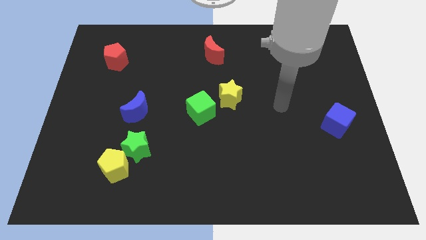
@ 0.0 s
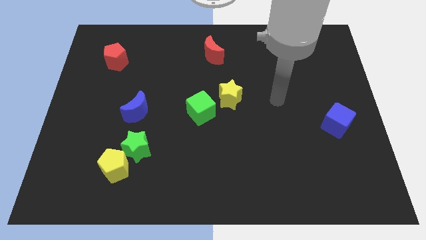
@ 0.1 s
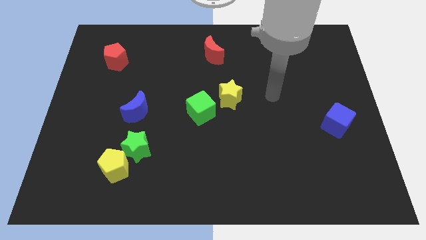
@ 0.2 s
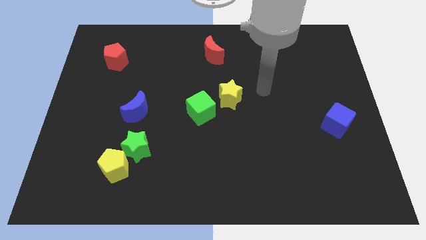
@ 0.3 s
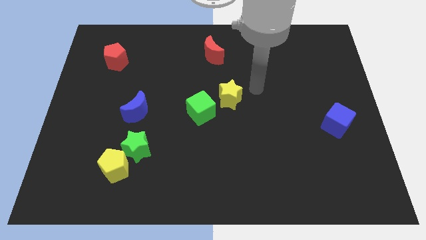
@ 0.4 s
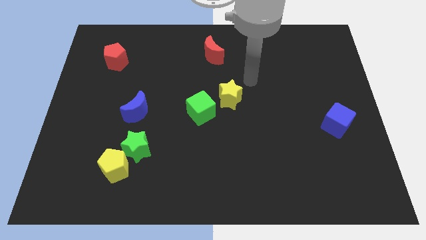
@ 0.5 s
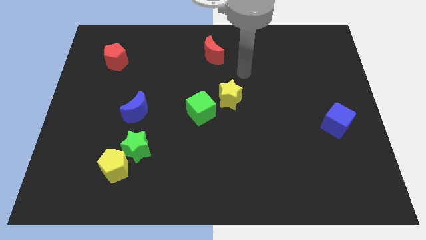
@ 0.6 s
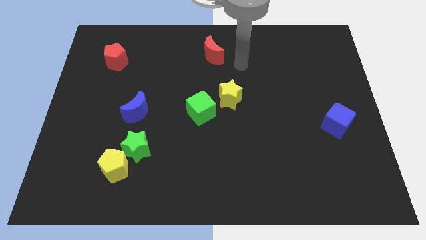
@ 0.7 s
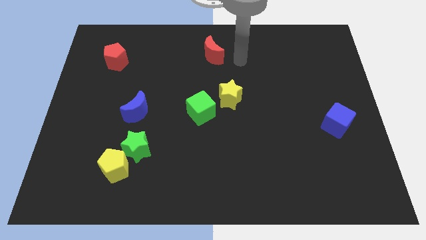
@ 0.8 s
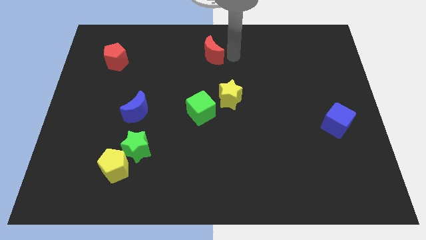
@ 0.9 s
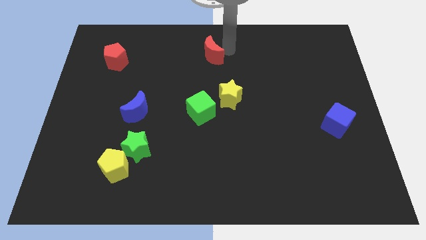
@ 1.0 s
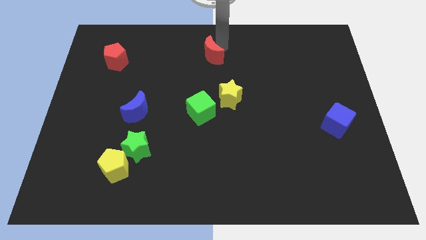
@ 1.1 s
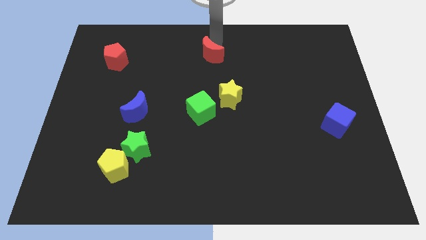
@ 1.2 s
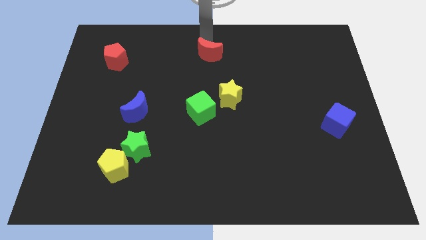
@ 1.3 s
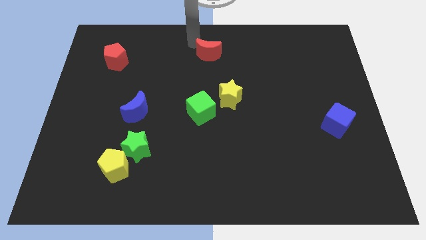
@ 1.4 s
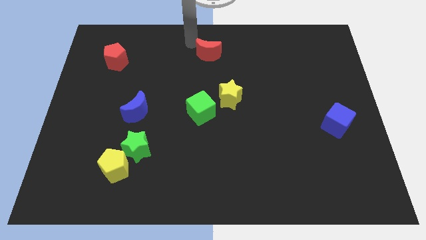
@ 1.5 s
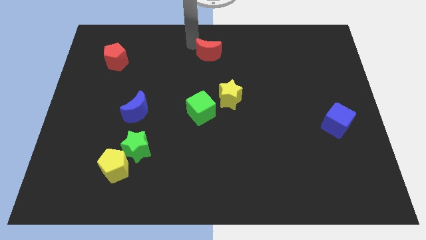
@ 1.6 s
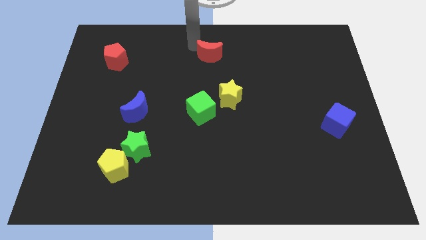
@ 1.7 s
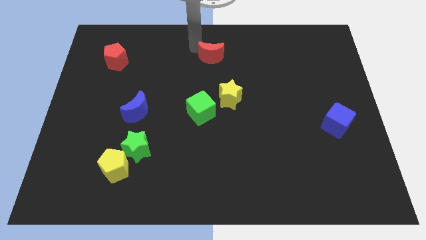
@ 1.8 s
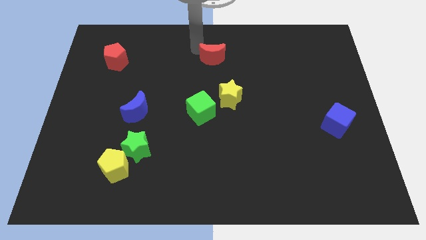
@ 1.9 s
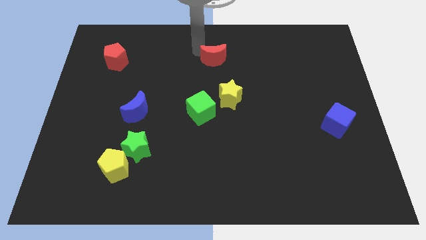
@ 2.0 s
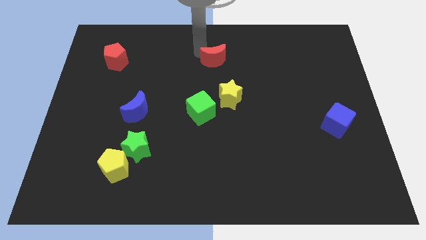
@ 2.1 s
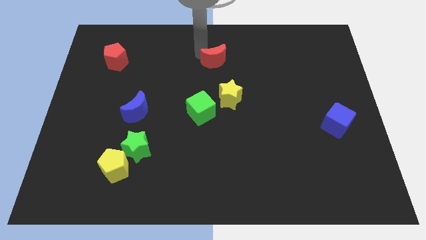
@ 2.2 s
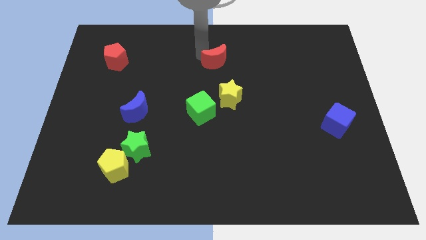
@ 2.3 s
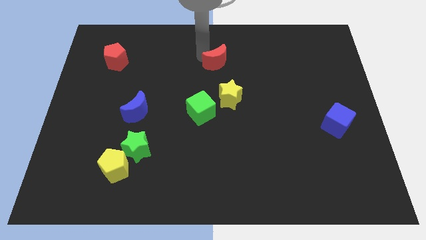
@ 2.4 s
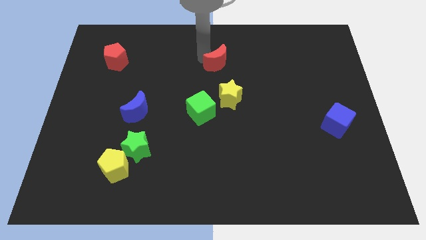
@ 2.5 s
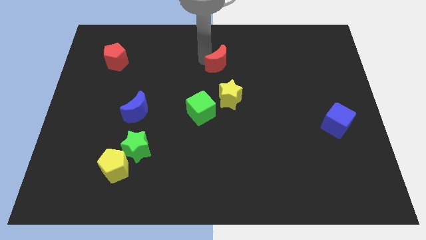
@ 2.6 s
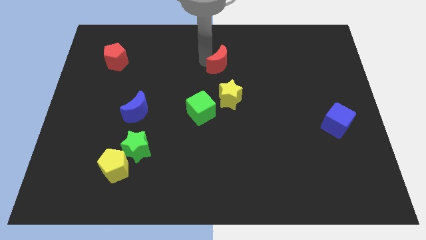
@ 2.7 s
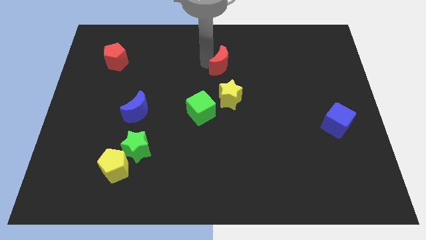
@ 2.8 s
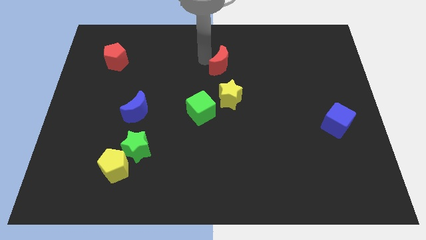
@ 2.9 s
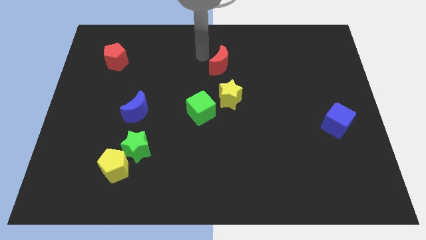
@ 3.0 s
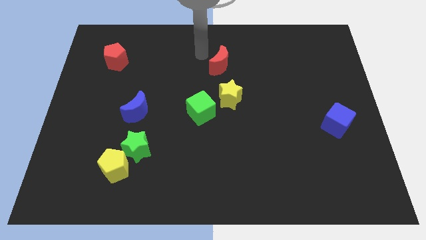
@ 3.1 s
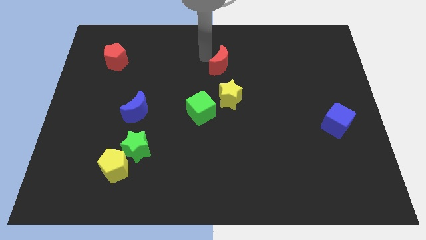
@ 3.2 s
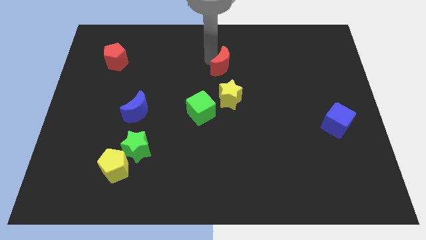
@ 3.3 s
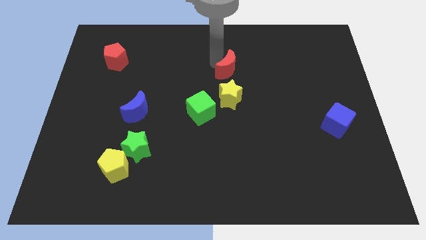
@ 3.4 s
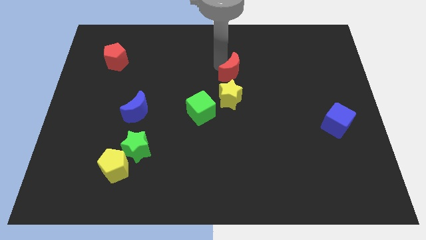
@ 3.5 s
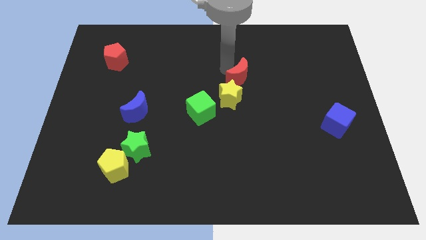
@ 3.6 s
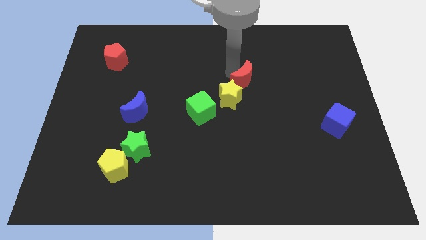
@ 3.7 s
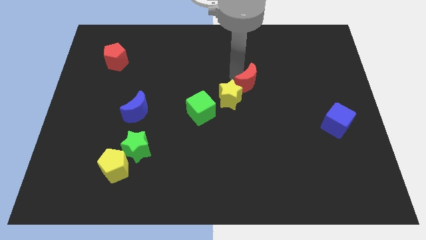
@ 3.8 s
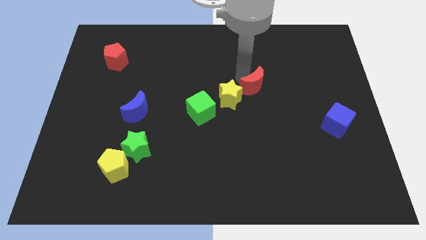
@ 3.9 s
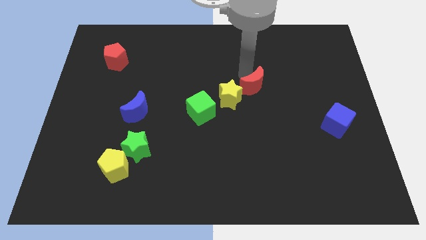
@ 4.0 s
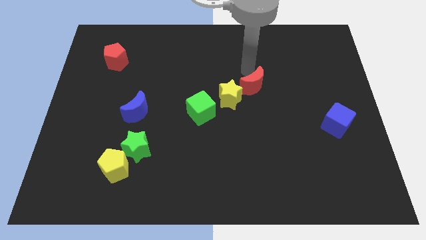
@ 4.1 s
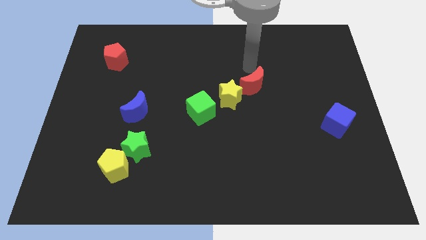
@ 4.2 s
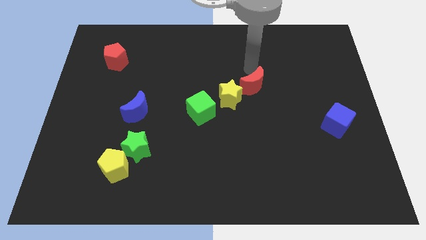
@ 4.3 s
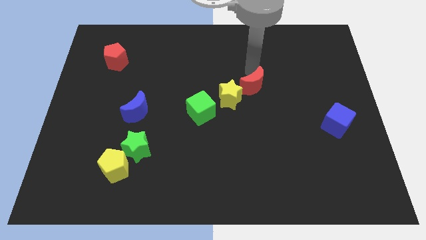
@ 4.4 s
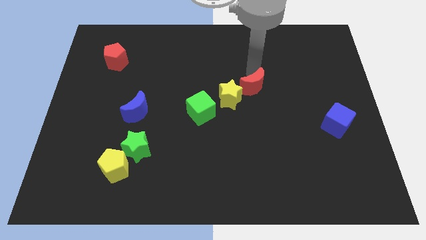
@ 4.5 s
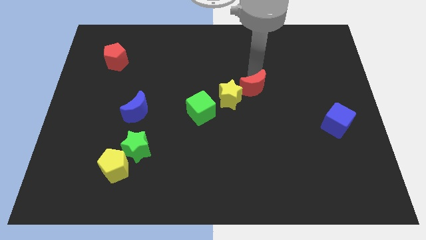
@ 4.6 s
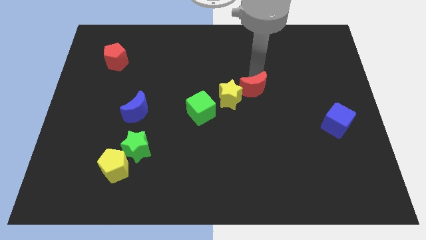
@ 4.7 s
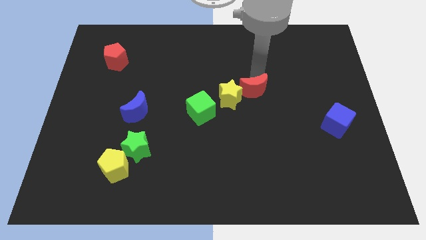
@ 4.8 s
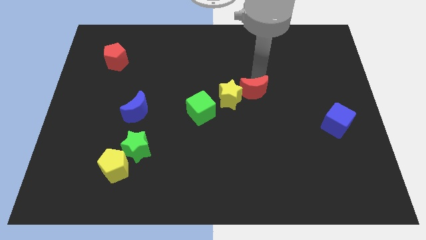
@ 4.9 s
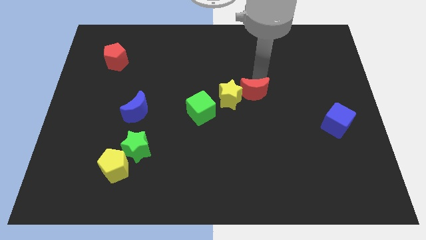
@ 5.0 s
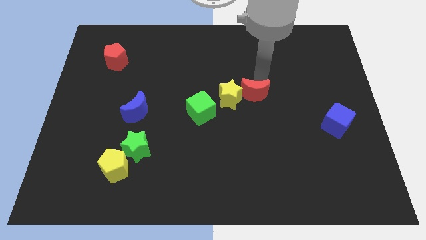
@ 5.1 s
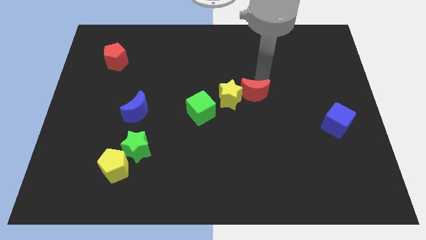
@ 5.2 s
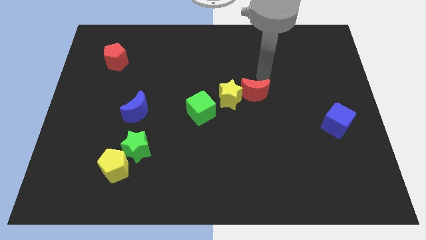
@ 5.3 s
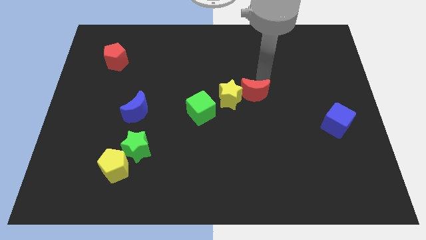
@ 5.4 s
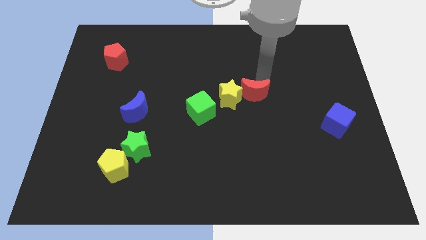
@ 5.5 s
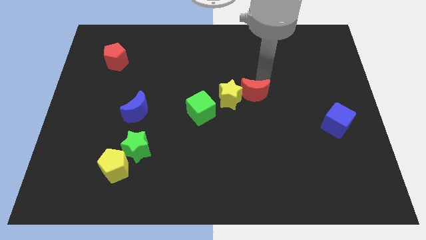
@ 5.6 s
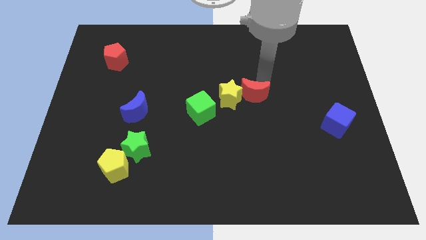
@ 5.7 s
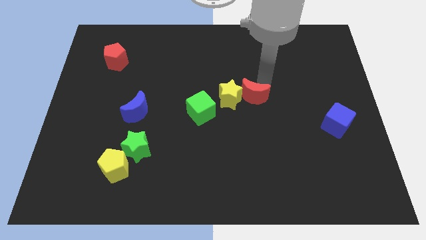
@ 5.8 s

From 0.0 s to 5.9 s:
move the red moon to the right of the green cube

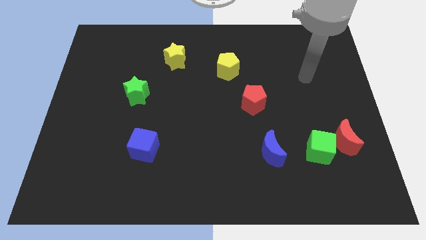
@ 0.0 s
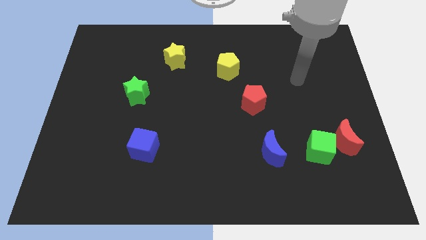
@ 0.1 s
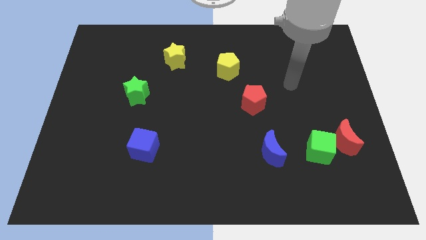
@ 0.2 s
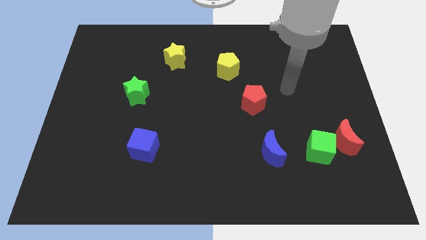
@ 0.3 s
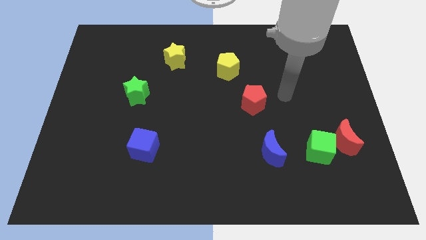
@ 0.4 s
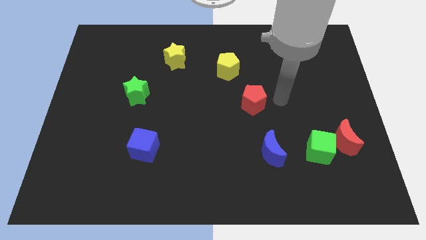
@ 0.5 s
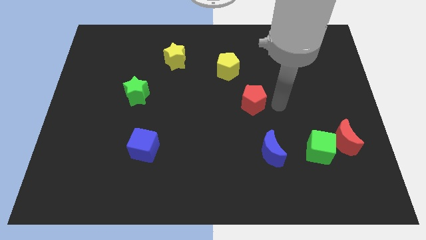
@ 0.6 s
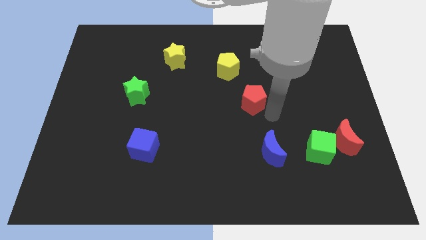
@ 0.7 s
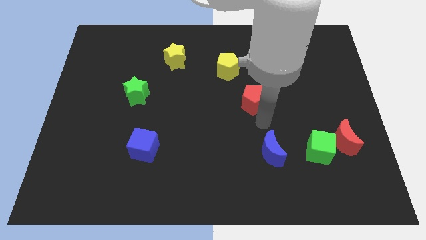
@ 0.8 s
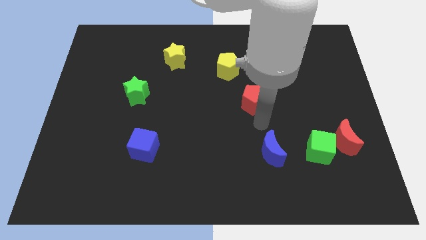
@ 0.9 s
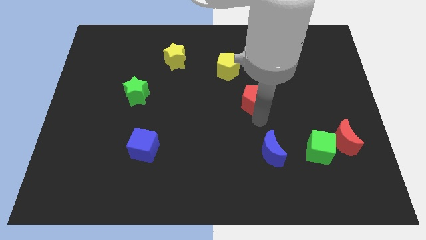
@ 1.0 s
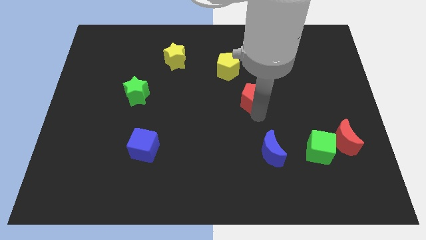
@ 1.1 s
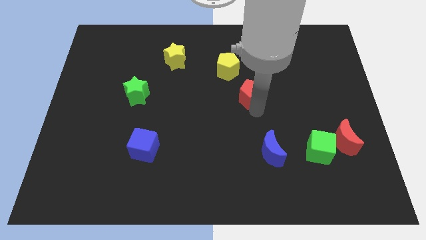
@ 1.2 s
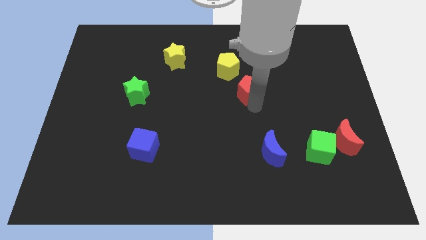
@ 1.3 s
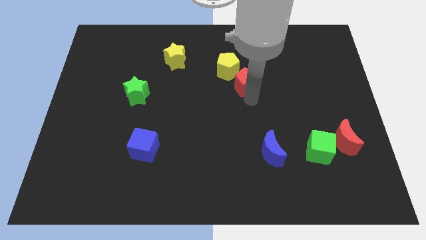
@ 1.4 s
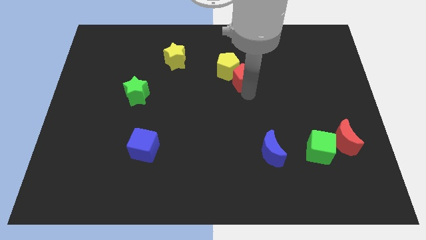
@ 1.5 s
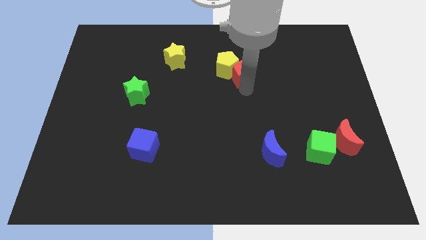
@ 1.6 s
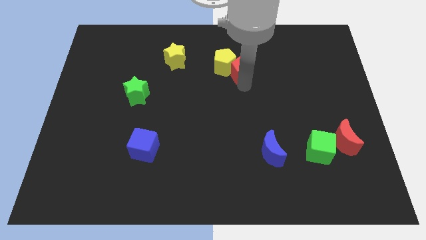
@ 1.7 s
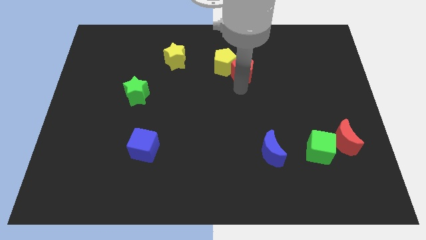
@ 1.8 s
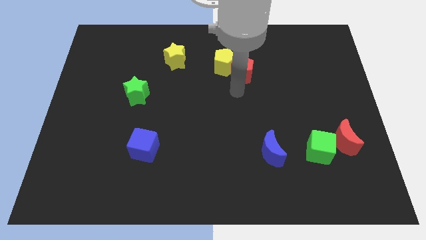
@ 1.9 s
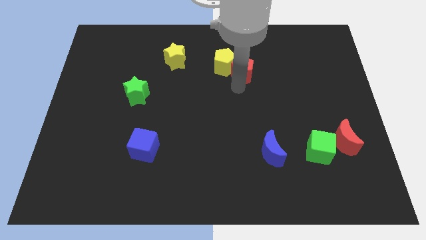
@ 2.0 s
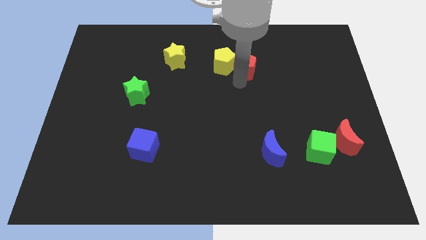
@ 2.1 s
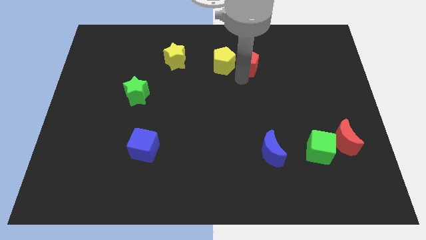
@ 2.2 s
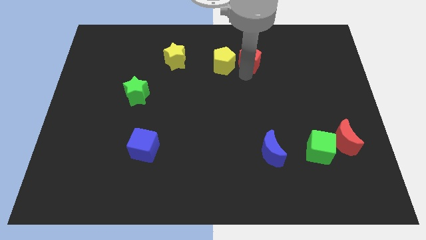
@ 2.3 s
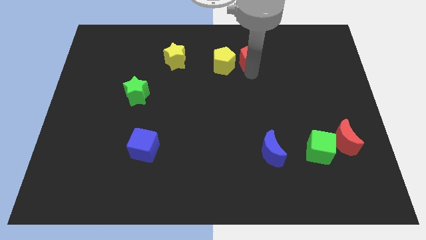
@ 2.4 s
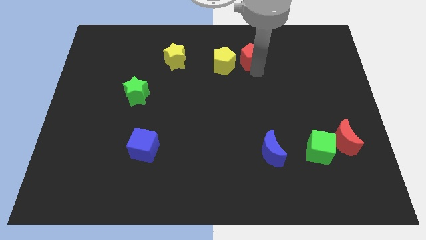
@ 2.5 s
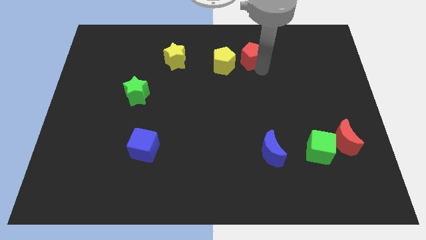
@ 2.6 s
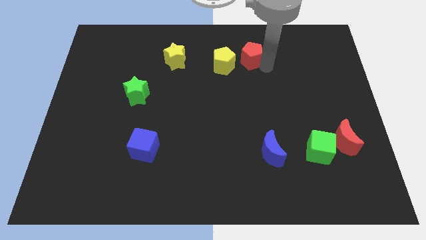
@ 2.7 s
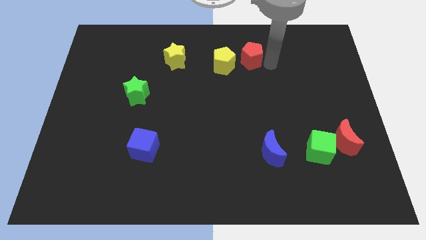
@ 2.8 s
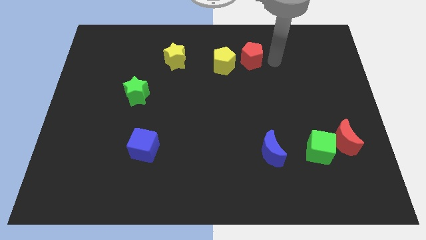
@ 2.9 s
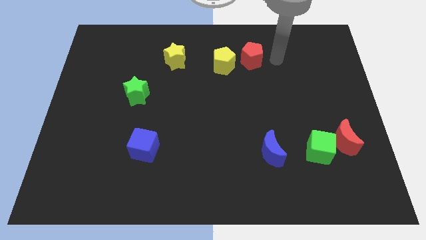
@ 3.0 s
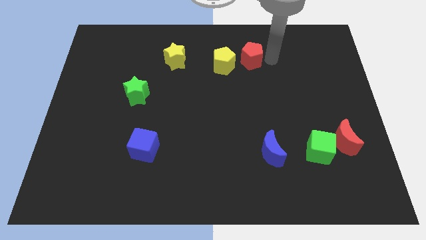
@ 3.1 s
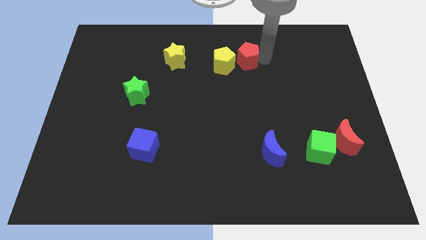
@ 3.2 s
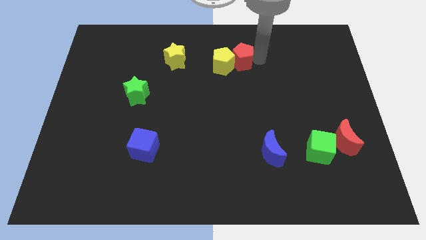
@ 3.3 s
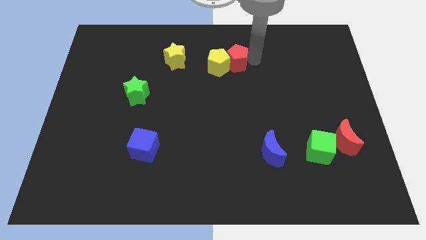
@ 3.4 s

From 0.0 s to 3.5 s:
put the red pentagon to the right of the yellow star
